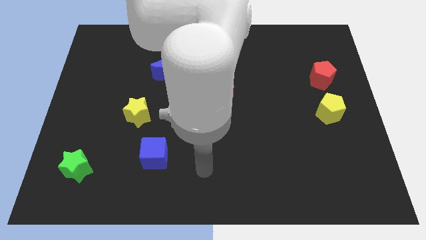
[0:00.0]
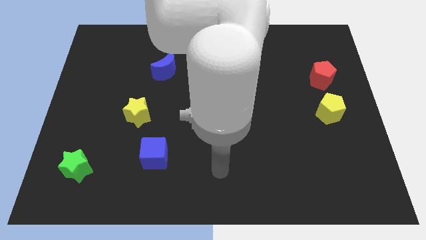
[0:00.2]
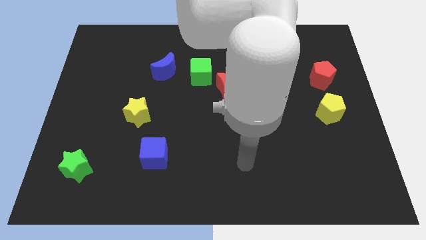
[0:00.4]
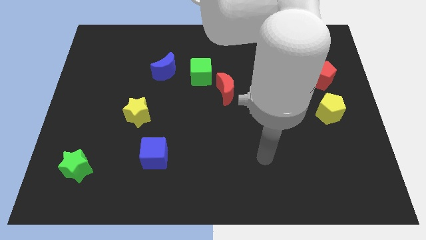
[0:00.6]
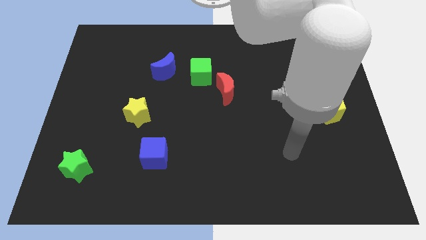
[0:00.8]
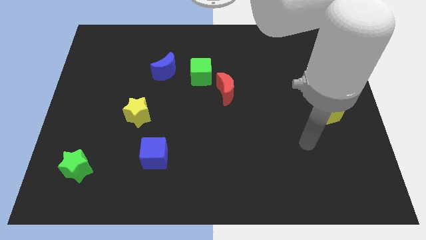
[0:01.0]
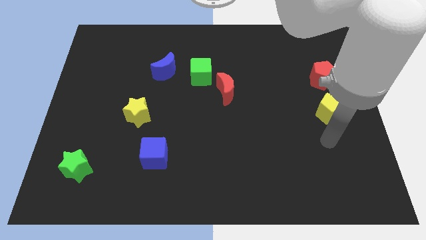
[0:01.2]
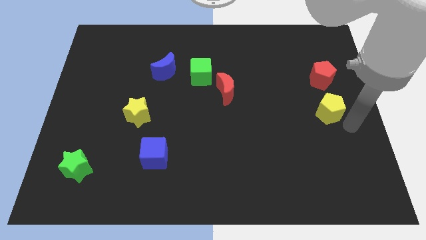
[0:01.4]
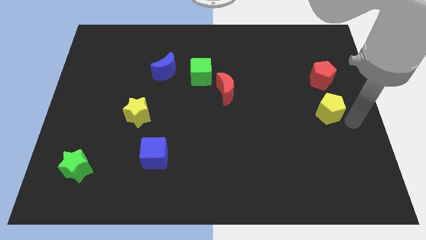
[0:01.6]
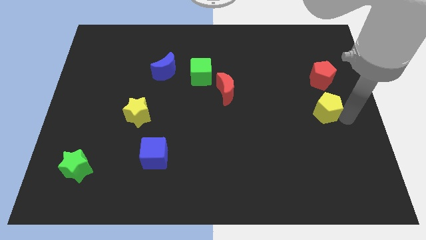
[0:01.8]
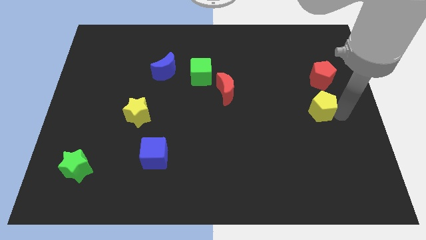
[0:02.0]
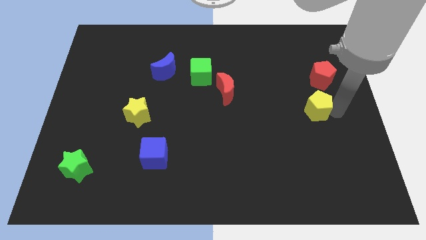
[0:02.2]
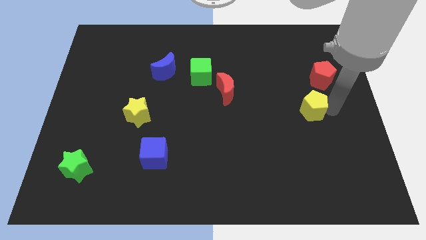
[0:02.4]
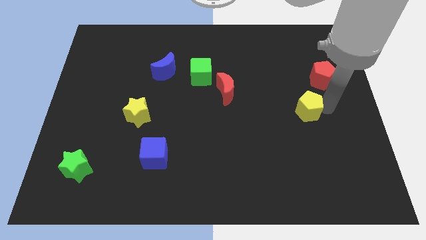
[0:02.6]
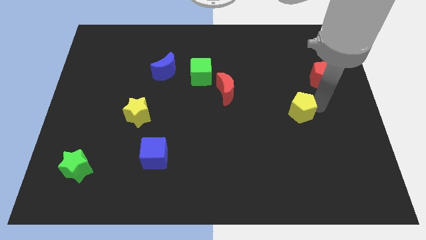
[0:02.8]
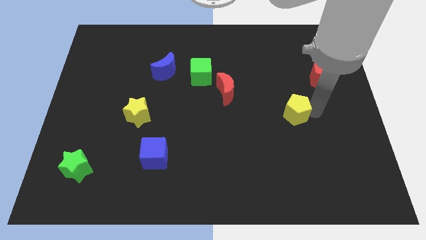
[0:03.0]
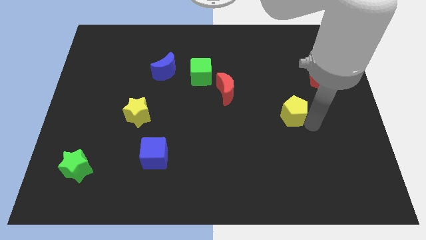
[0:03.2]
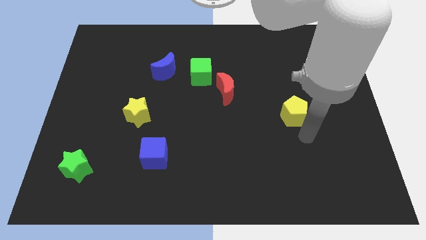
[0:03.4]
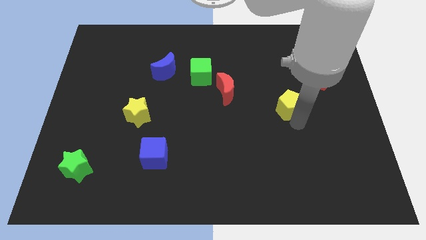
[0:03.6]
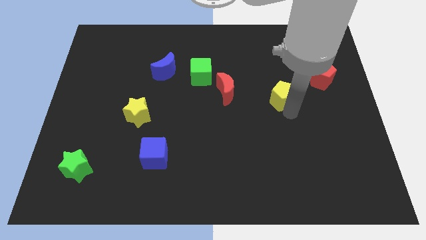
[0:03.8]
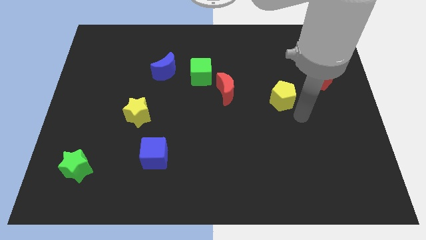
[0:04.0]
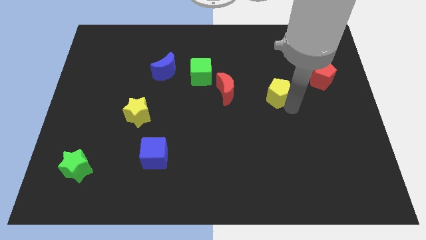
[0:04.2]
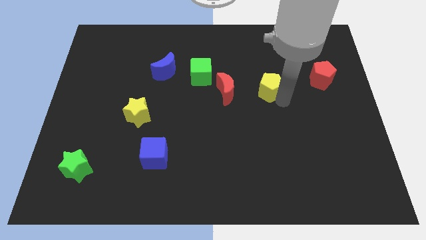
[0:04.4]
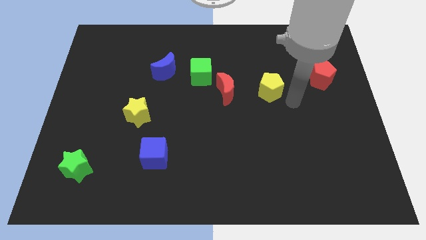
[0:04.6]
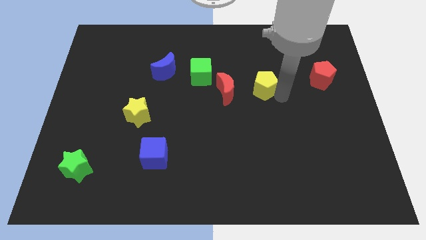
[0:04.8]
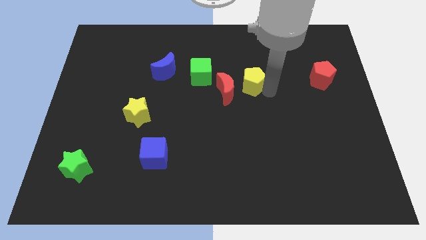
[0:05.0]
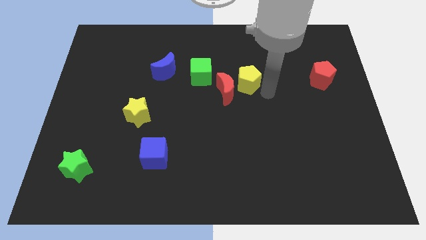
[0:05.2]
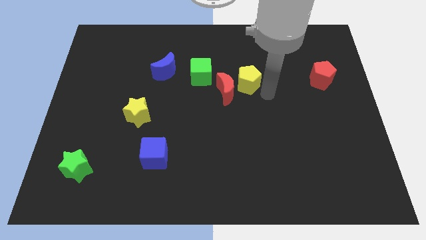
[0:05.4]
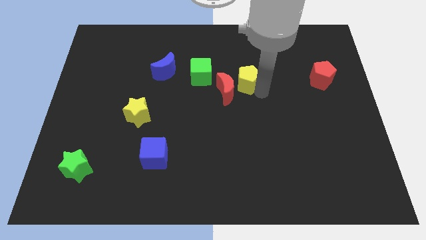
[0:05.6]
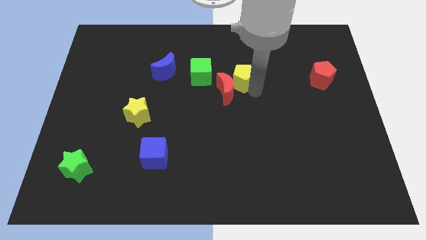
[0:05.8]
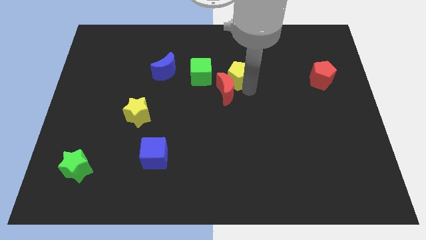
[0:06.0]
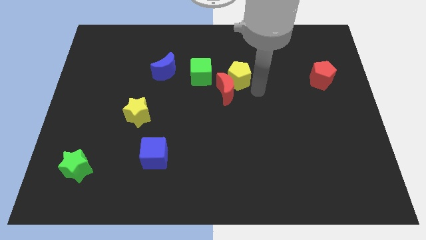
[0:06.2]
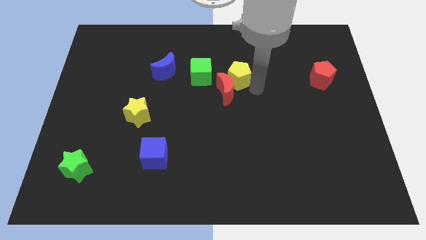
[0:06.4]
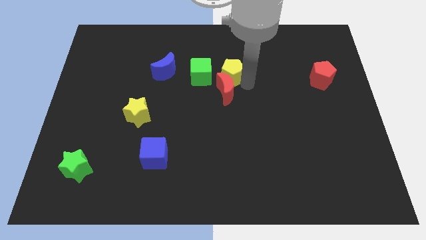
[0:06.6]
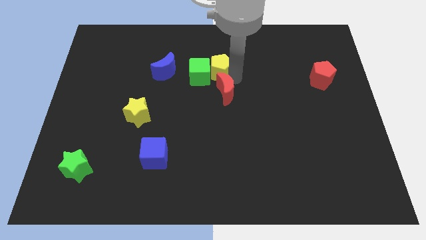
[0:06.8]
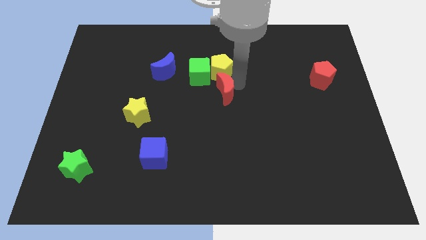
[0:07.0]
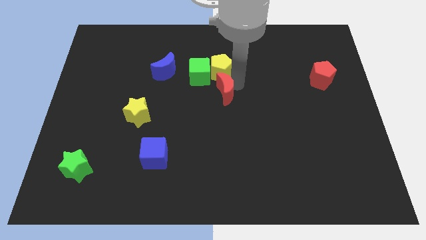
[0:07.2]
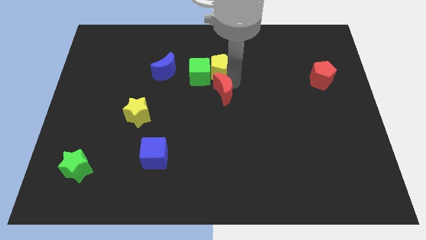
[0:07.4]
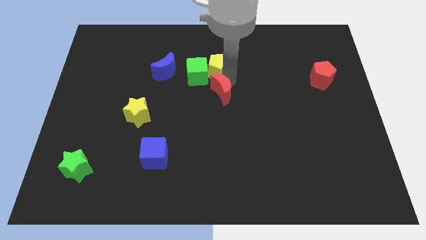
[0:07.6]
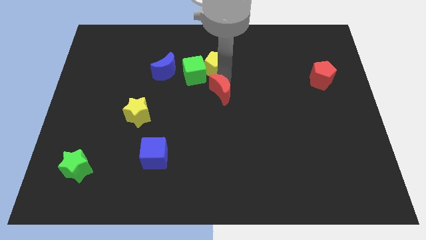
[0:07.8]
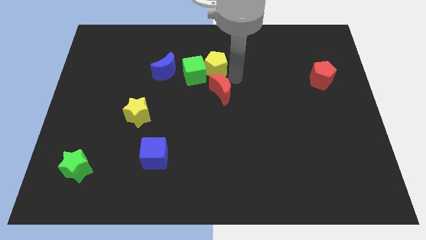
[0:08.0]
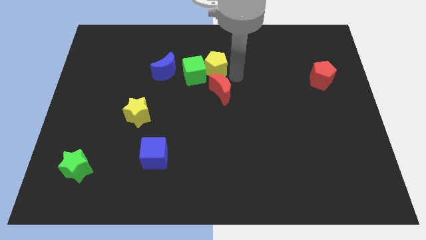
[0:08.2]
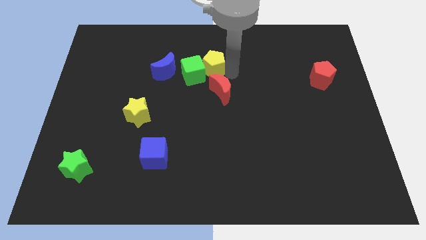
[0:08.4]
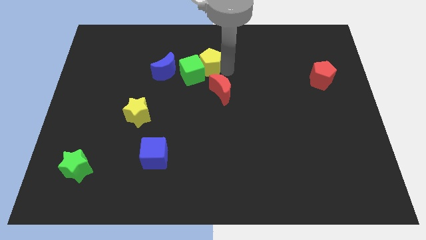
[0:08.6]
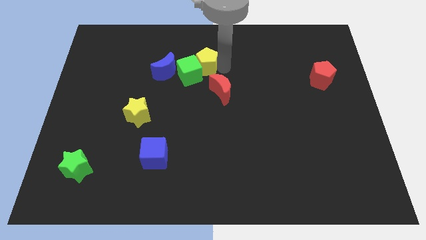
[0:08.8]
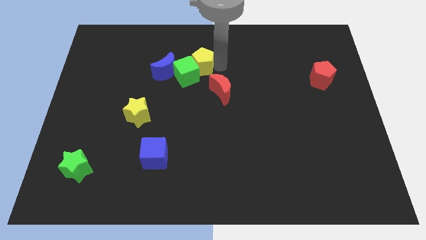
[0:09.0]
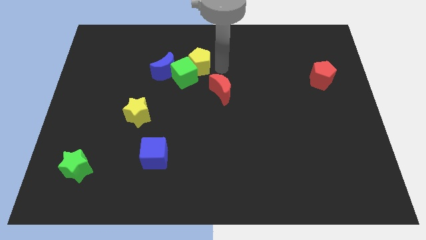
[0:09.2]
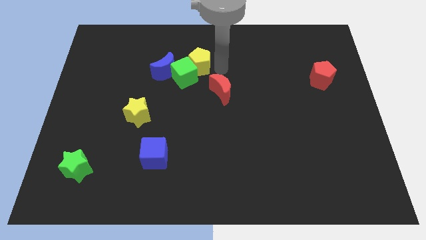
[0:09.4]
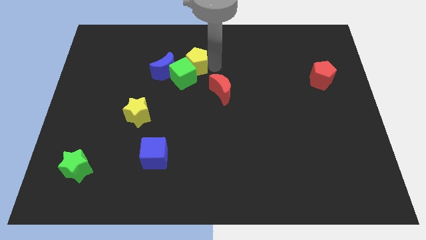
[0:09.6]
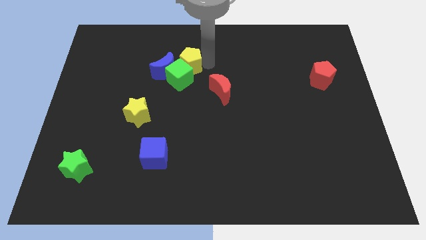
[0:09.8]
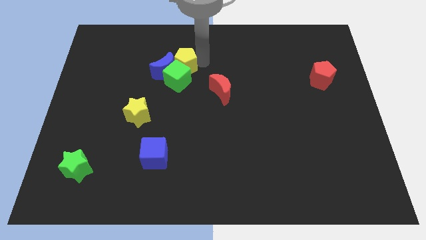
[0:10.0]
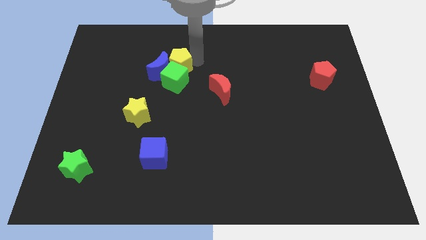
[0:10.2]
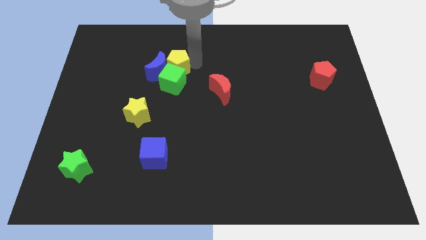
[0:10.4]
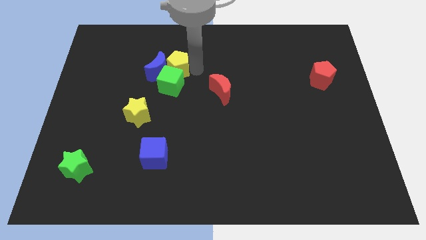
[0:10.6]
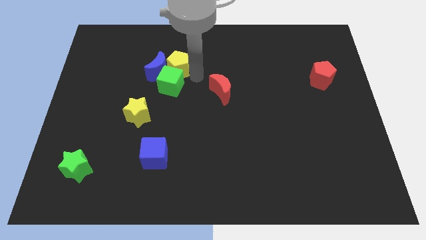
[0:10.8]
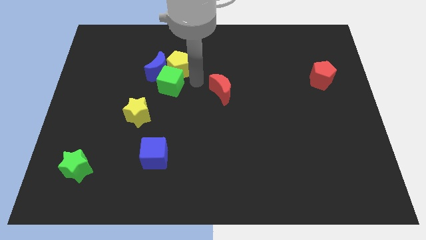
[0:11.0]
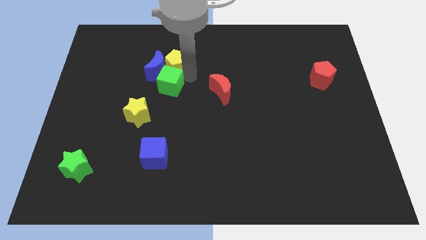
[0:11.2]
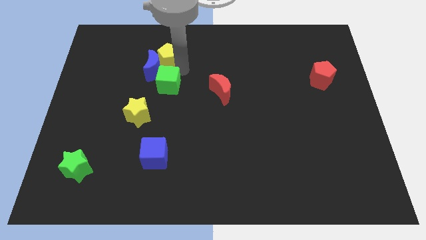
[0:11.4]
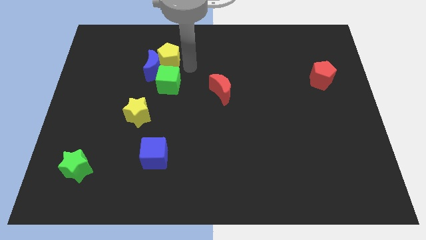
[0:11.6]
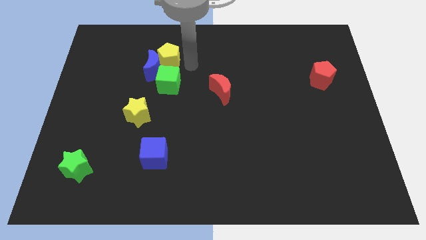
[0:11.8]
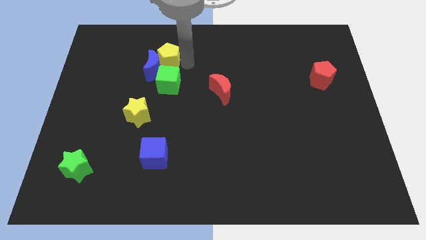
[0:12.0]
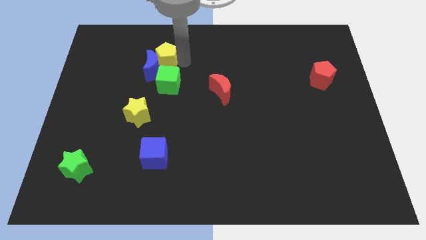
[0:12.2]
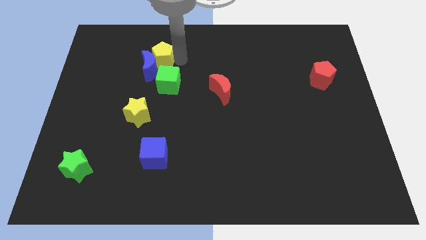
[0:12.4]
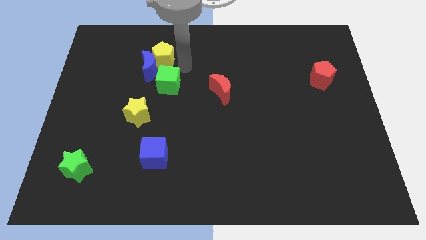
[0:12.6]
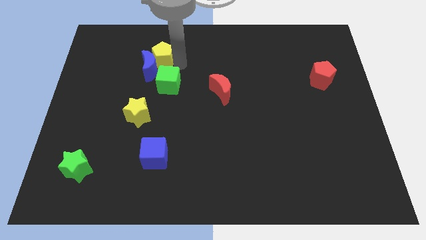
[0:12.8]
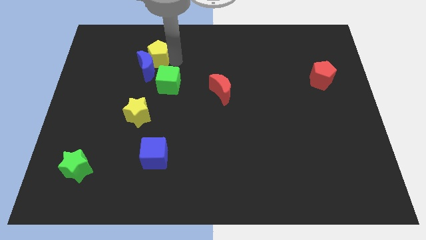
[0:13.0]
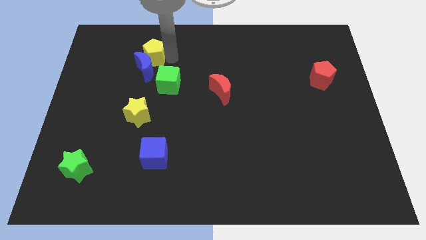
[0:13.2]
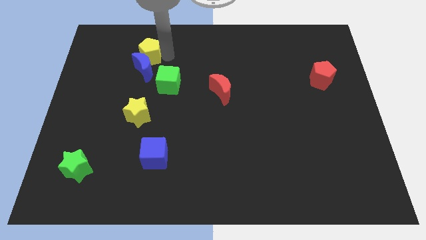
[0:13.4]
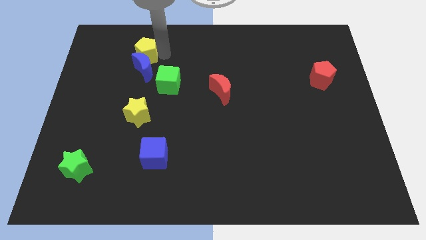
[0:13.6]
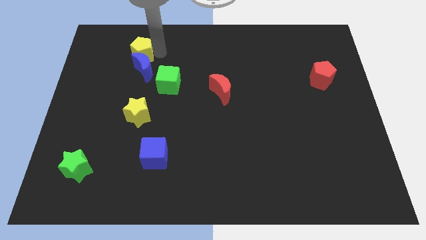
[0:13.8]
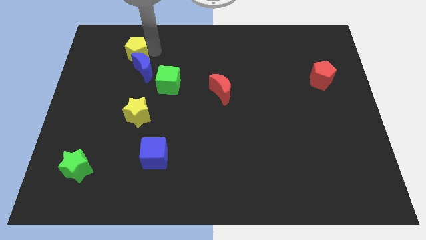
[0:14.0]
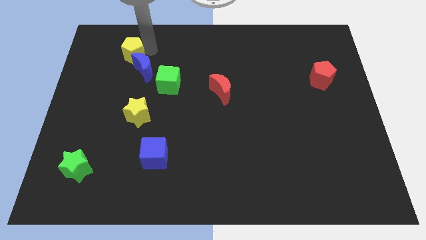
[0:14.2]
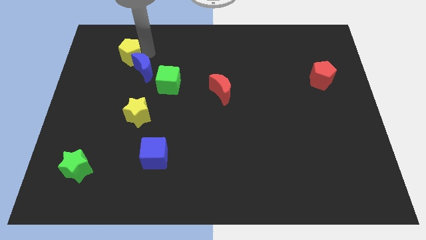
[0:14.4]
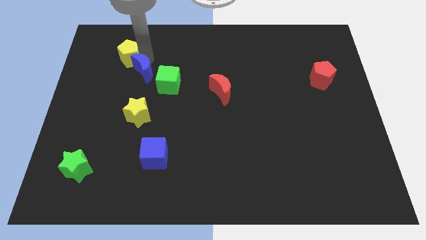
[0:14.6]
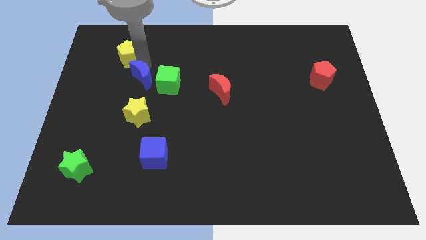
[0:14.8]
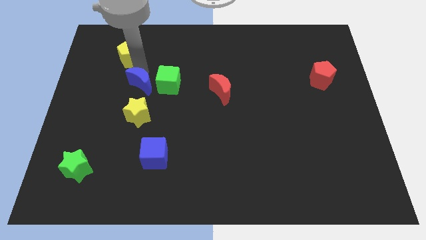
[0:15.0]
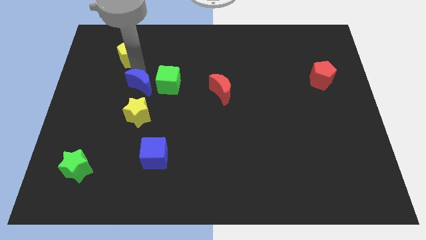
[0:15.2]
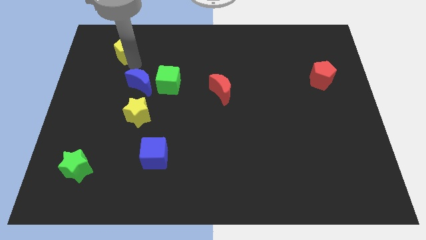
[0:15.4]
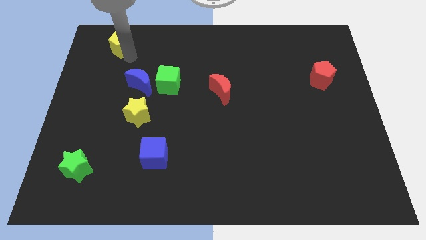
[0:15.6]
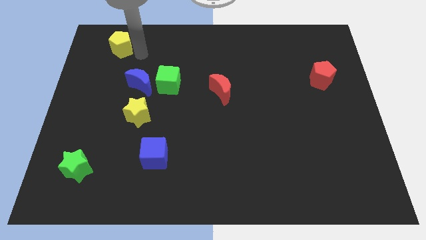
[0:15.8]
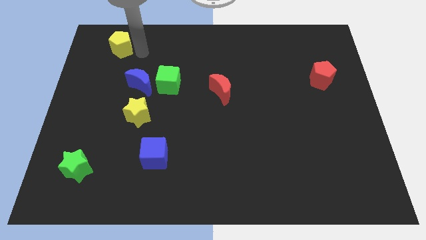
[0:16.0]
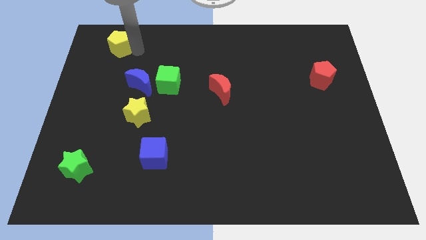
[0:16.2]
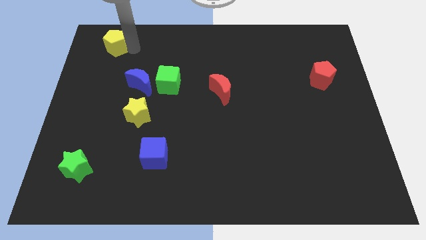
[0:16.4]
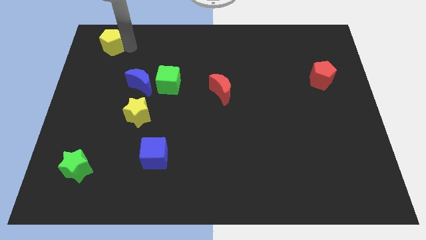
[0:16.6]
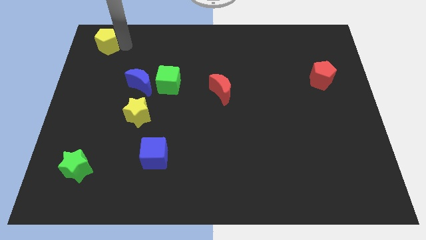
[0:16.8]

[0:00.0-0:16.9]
put the yellow pentagon to the top left of the board
